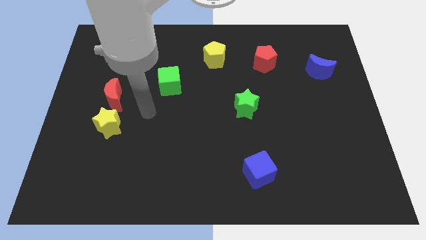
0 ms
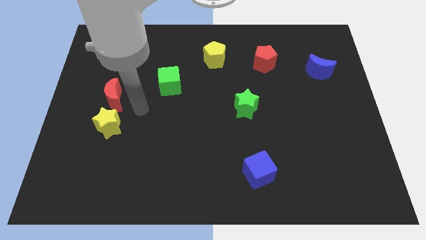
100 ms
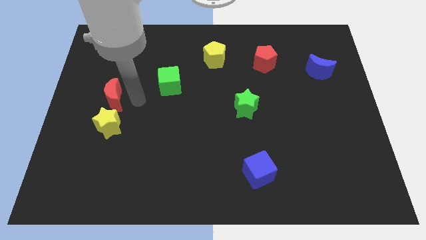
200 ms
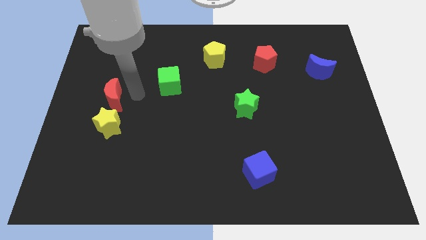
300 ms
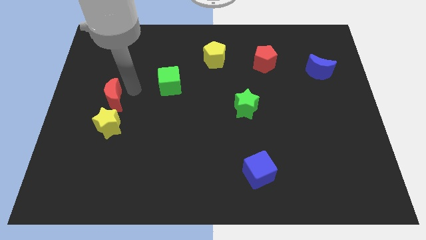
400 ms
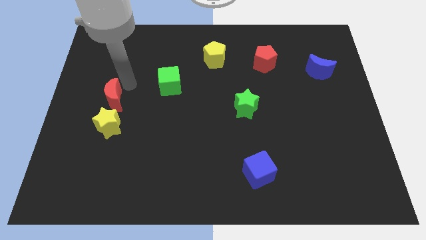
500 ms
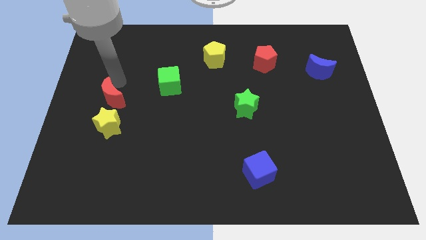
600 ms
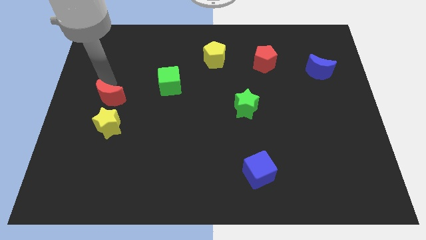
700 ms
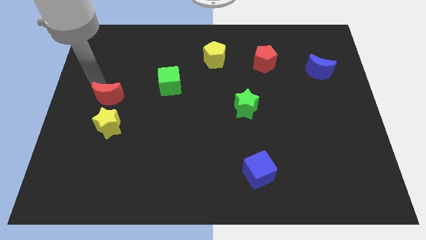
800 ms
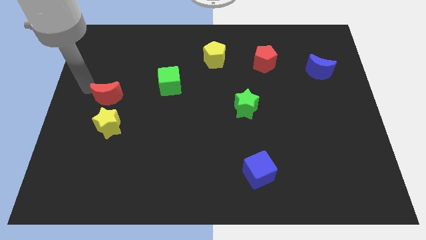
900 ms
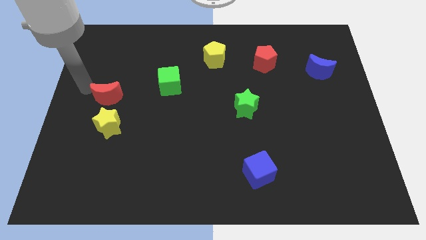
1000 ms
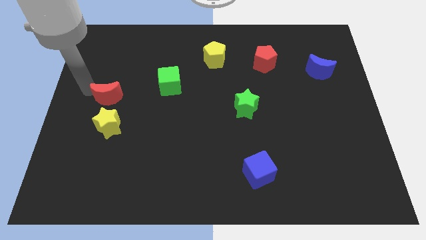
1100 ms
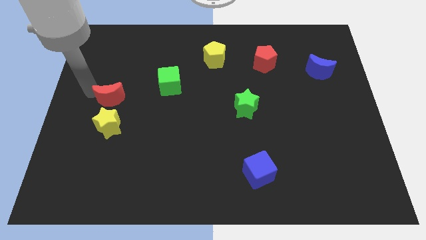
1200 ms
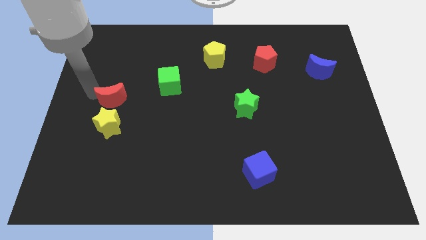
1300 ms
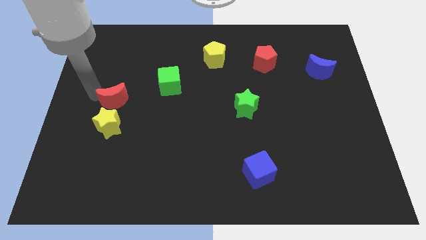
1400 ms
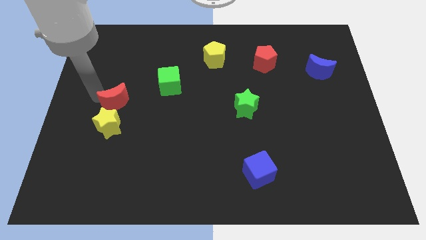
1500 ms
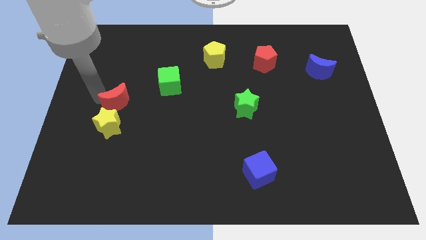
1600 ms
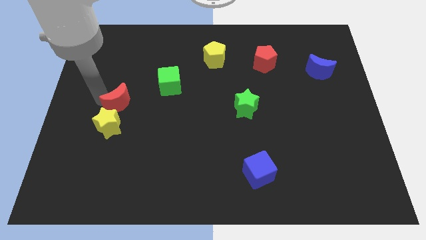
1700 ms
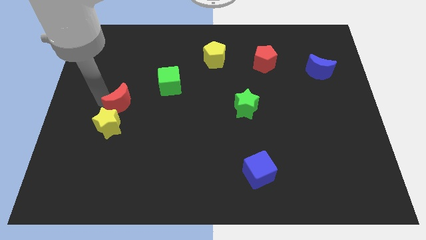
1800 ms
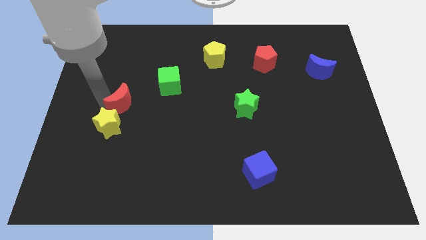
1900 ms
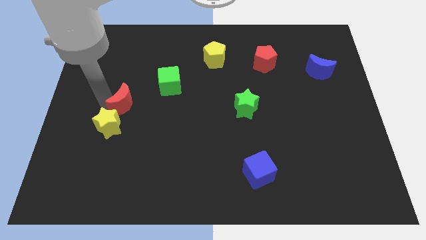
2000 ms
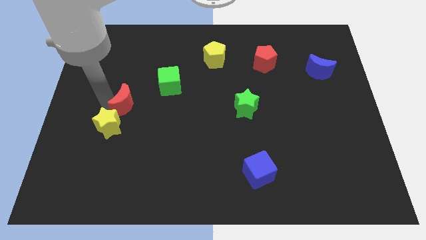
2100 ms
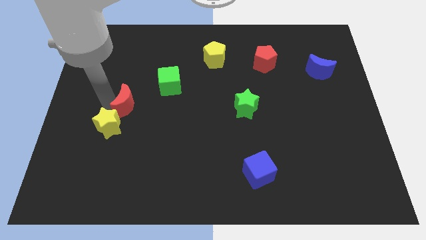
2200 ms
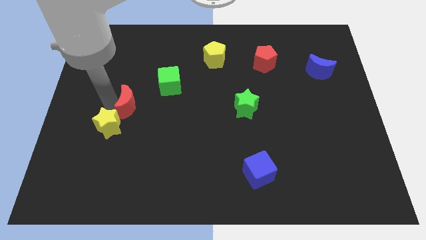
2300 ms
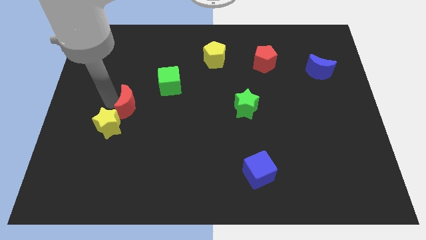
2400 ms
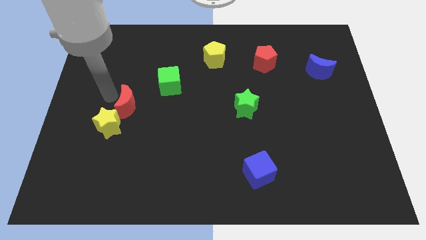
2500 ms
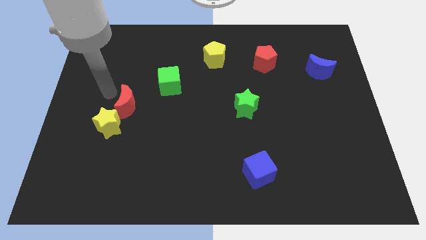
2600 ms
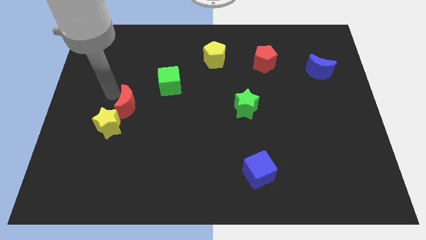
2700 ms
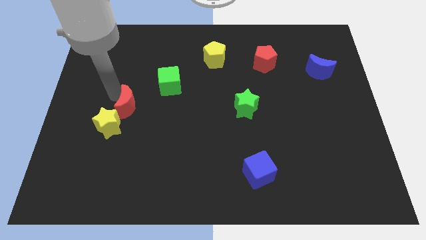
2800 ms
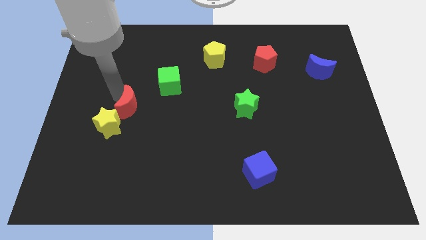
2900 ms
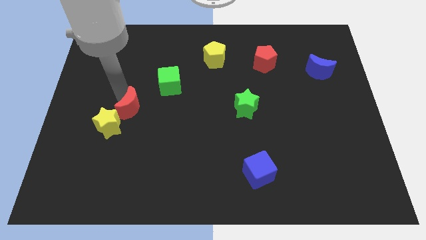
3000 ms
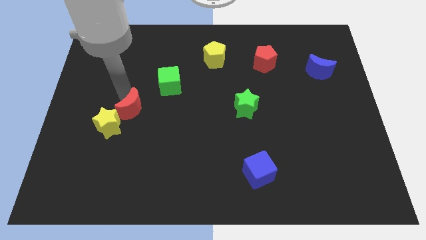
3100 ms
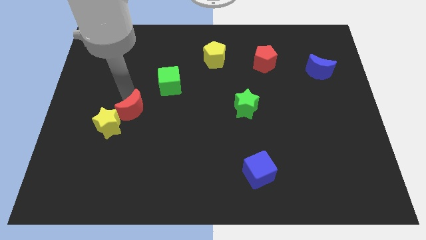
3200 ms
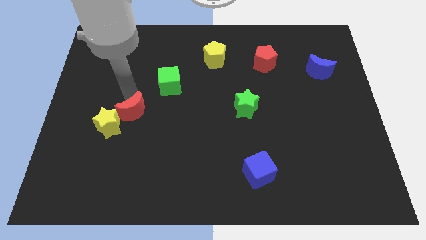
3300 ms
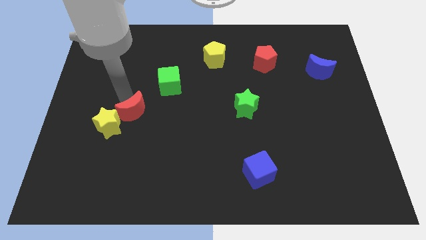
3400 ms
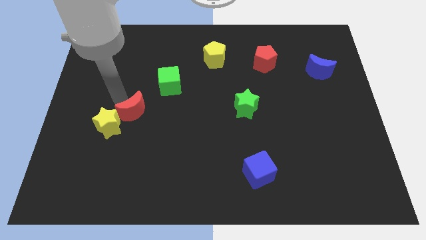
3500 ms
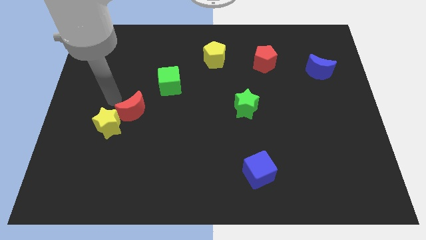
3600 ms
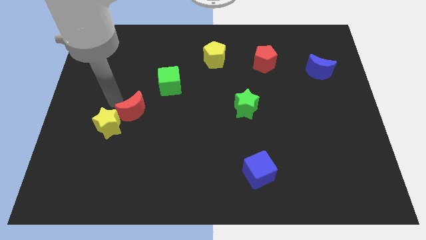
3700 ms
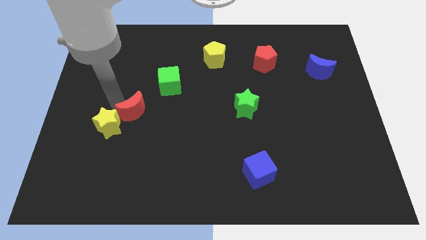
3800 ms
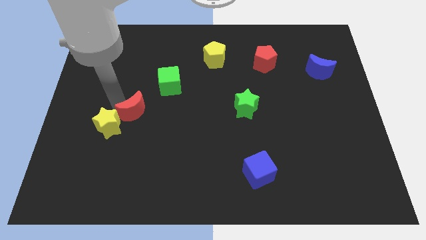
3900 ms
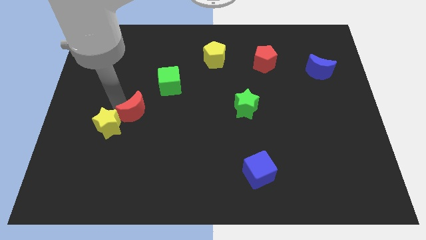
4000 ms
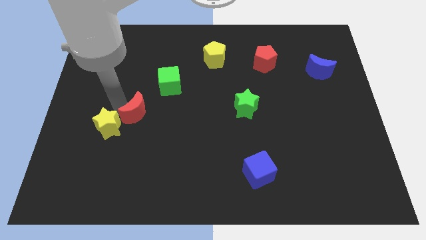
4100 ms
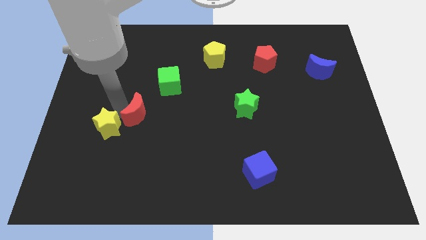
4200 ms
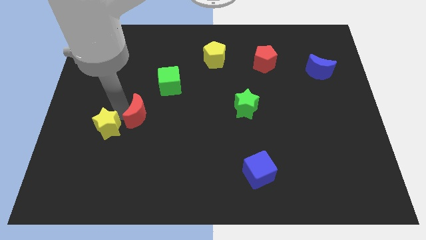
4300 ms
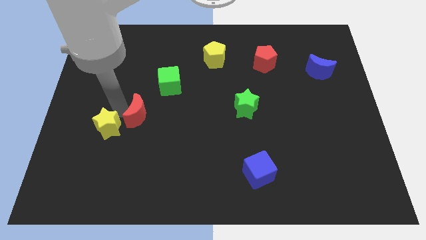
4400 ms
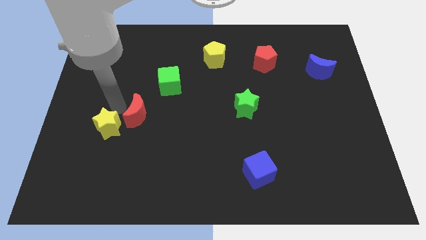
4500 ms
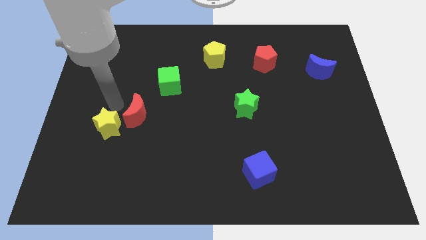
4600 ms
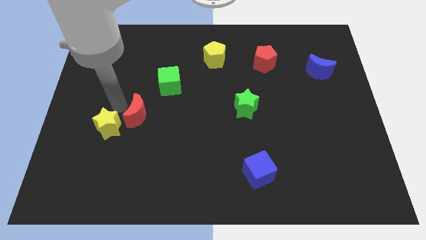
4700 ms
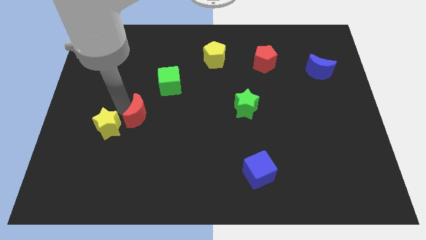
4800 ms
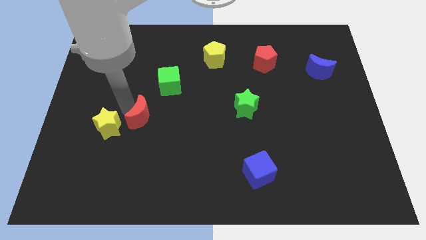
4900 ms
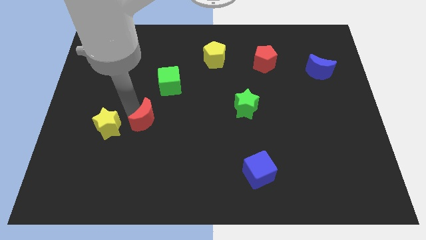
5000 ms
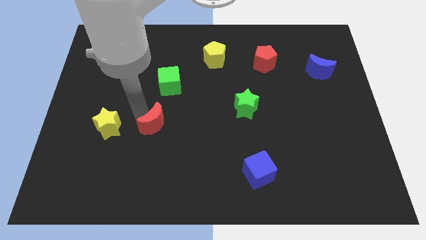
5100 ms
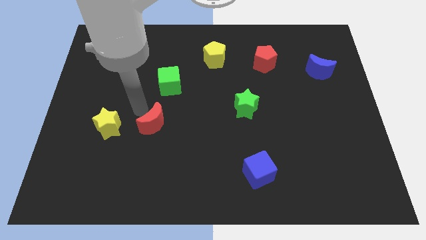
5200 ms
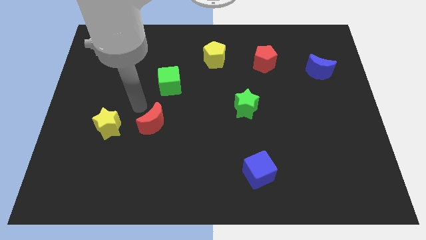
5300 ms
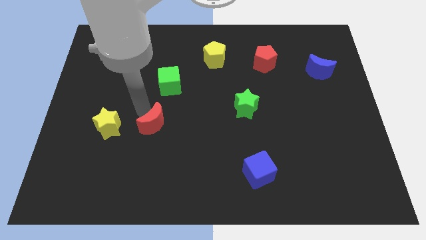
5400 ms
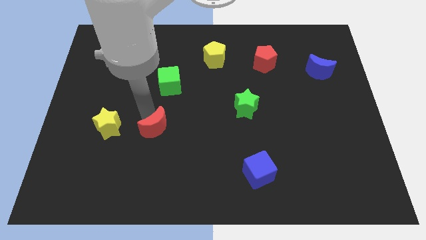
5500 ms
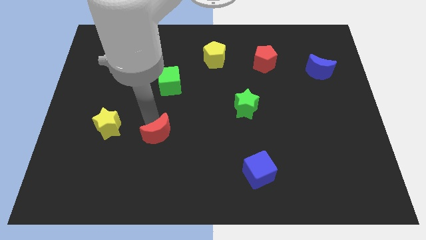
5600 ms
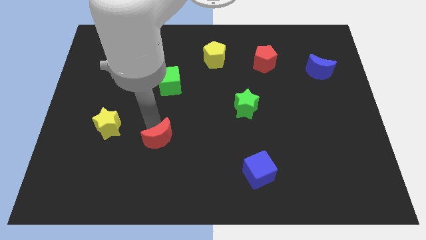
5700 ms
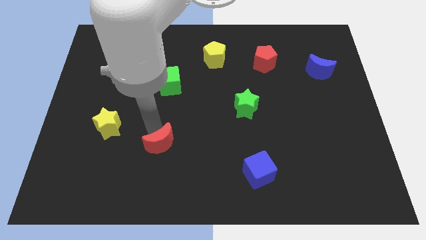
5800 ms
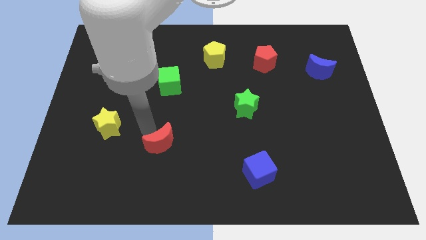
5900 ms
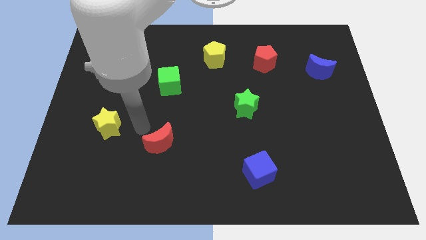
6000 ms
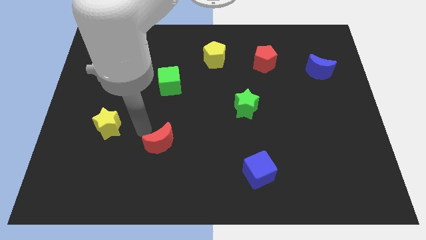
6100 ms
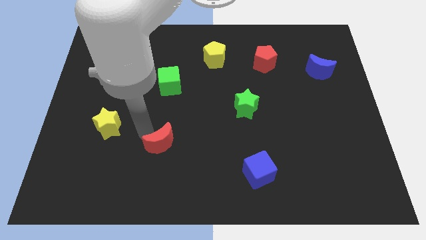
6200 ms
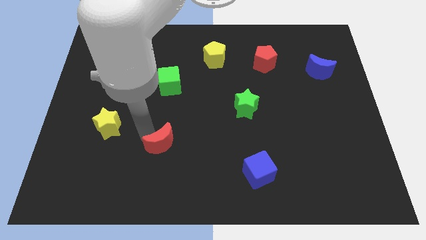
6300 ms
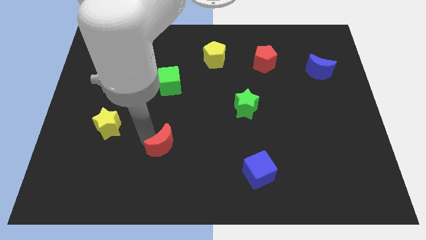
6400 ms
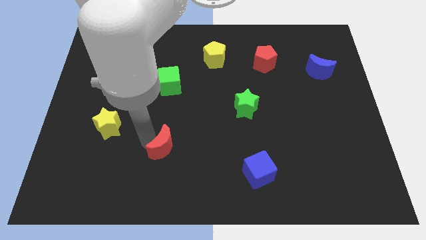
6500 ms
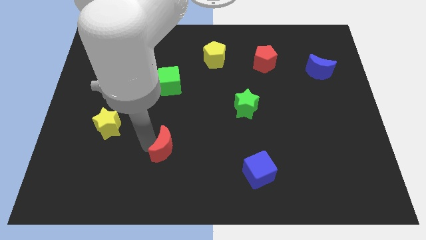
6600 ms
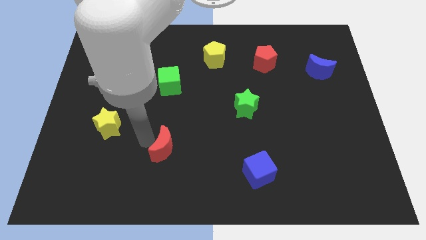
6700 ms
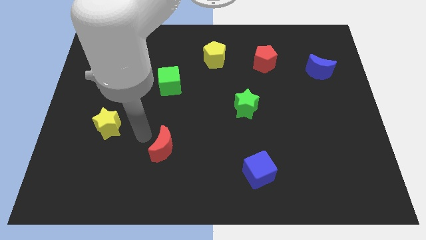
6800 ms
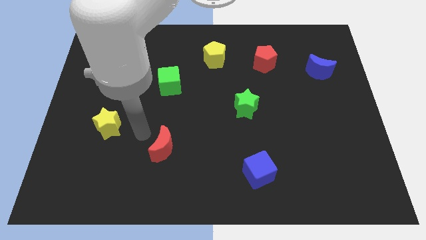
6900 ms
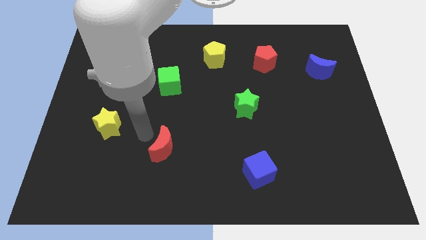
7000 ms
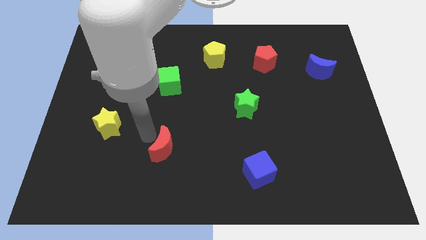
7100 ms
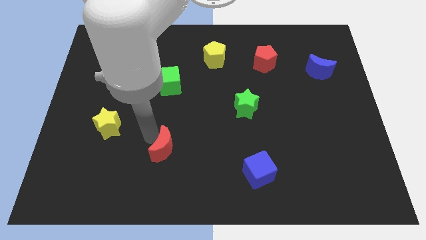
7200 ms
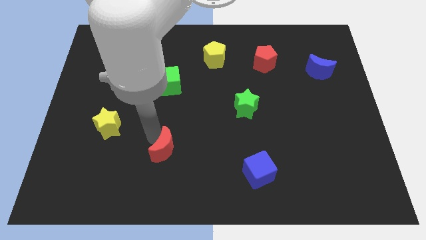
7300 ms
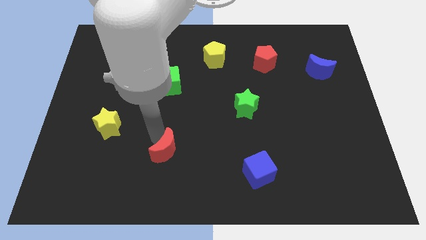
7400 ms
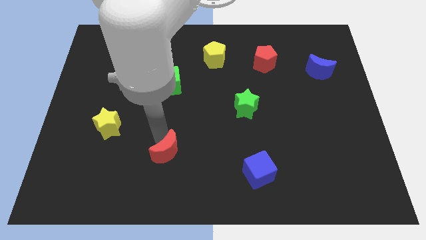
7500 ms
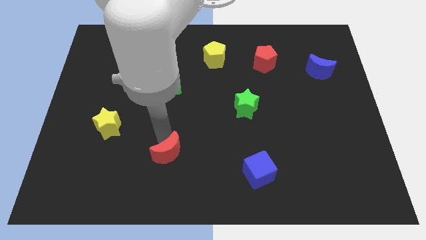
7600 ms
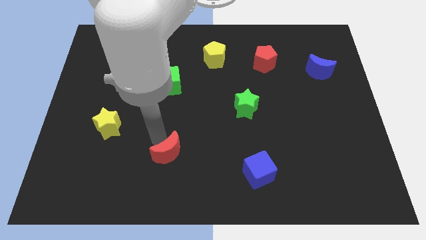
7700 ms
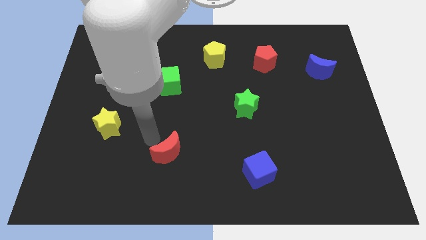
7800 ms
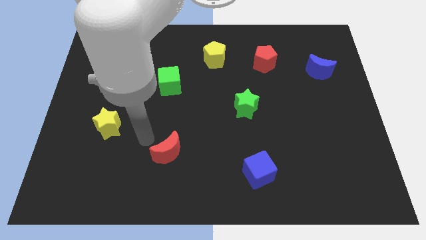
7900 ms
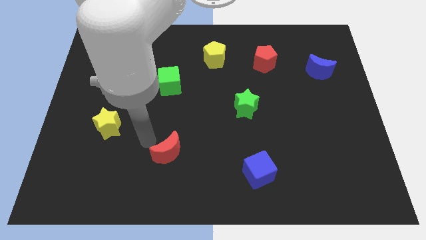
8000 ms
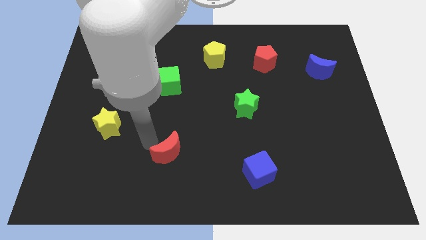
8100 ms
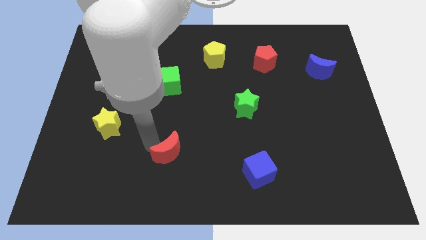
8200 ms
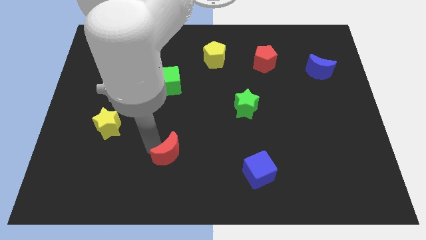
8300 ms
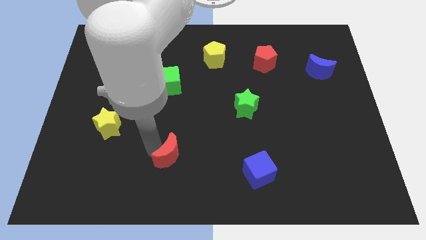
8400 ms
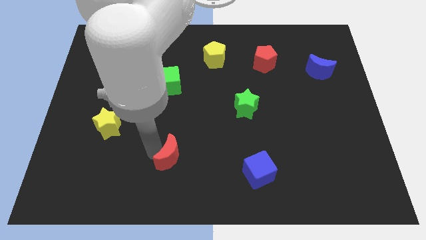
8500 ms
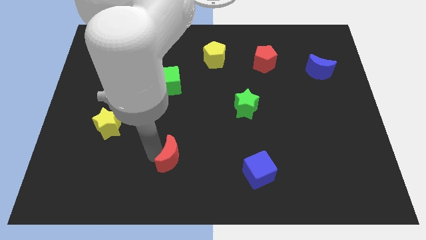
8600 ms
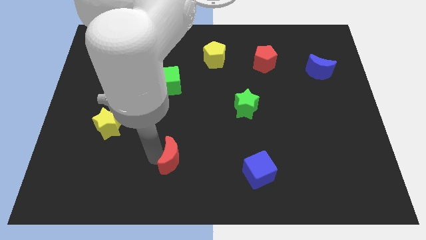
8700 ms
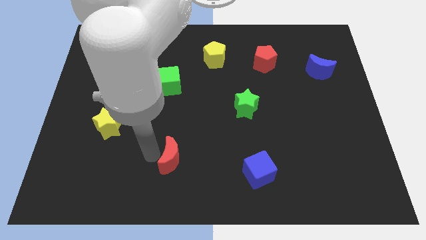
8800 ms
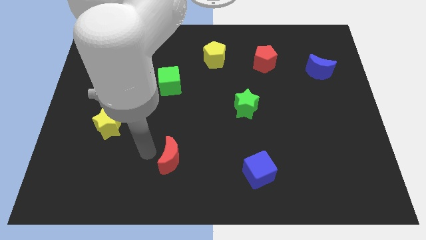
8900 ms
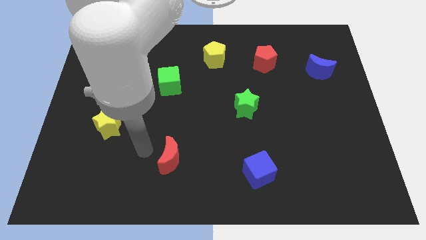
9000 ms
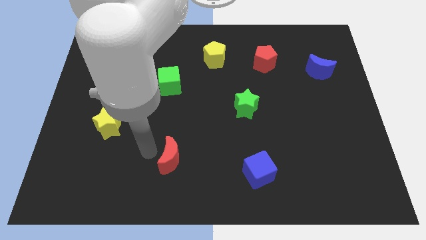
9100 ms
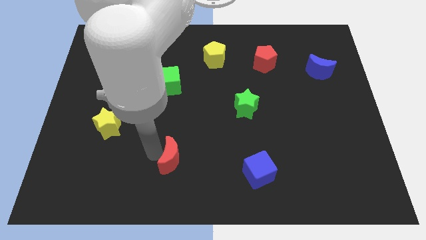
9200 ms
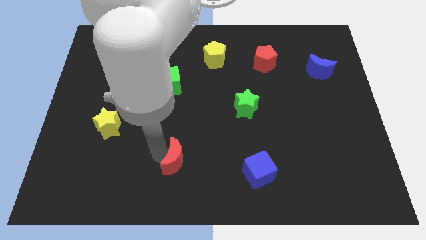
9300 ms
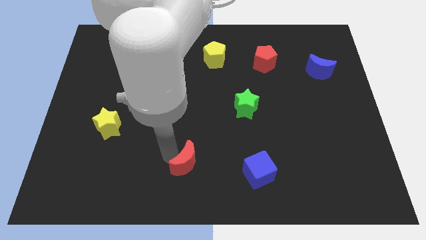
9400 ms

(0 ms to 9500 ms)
put the red moon to the bottom
